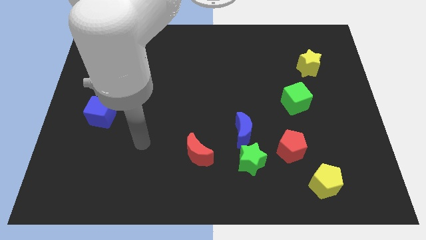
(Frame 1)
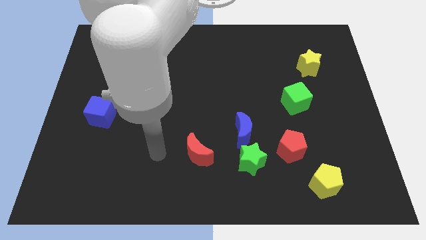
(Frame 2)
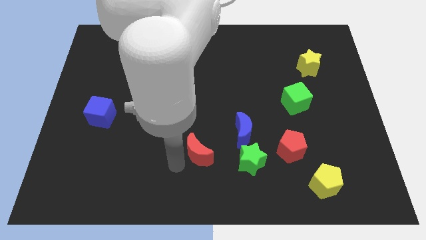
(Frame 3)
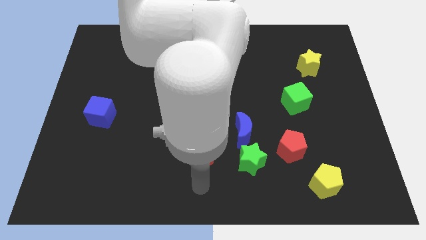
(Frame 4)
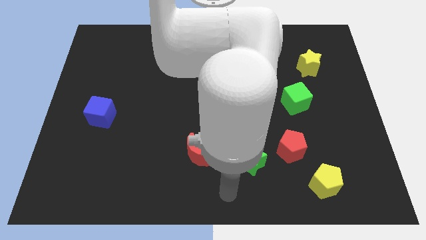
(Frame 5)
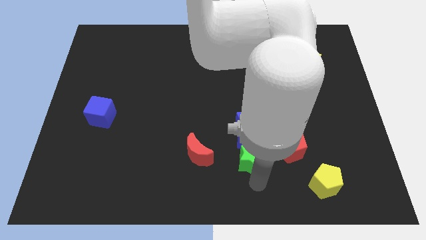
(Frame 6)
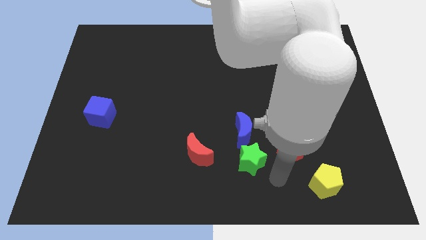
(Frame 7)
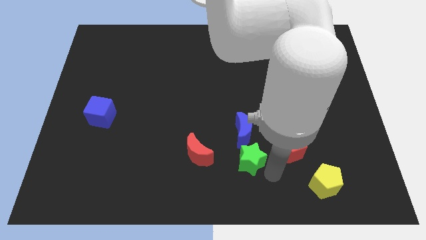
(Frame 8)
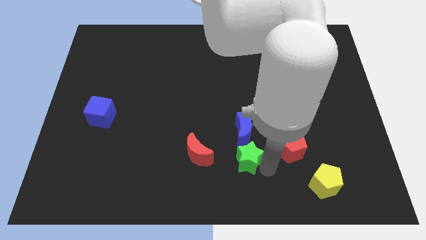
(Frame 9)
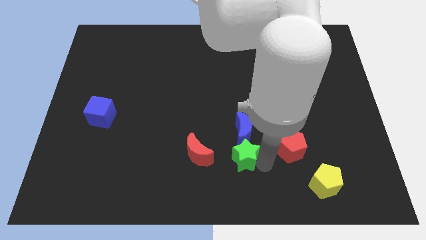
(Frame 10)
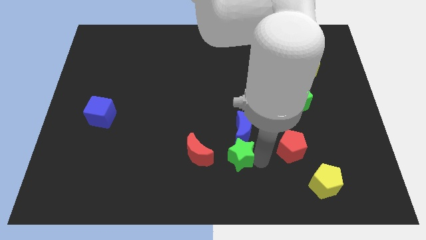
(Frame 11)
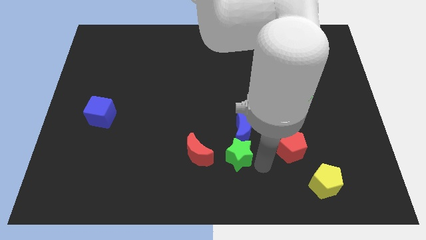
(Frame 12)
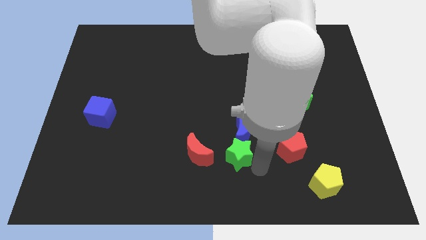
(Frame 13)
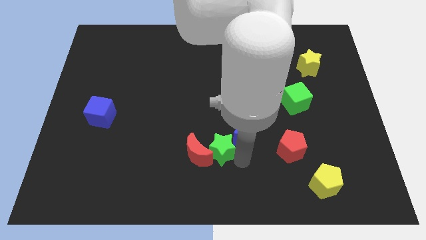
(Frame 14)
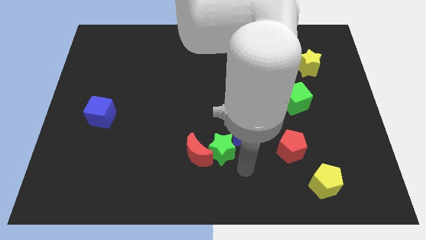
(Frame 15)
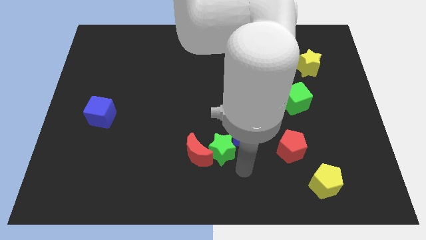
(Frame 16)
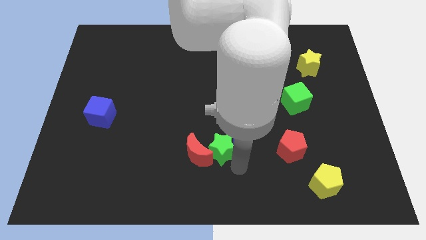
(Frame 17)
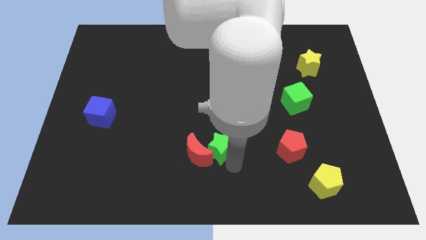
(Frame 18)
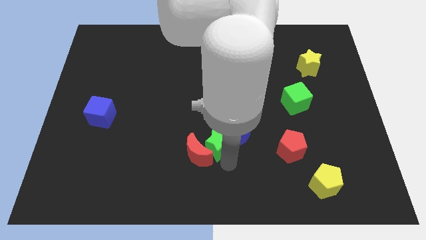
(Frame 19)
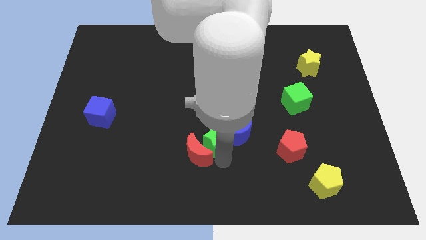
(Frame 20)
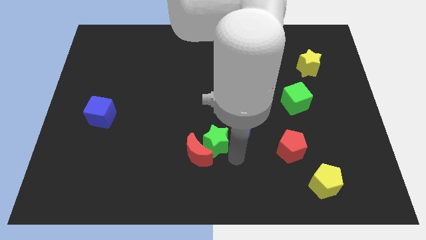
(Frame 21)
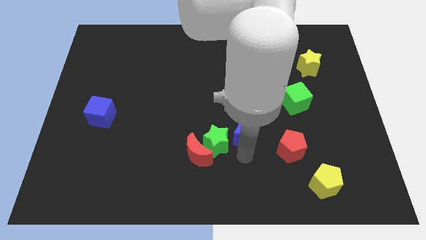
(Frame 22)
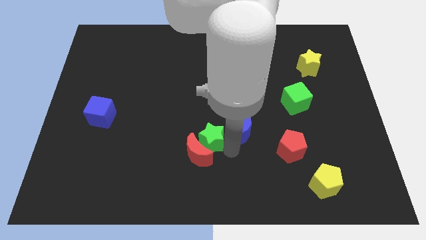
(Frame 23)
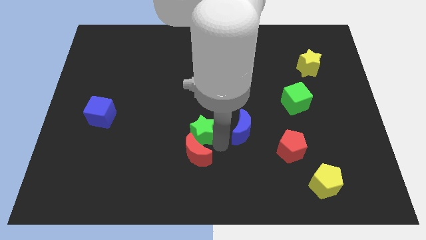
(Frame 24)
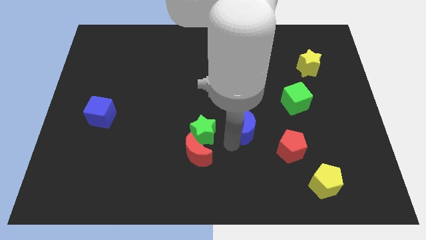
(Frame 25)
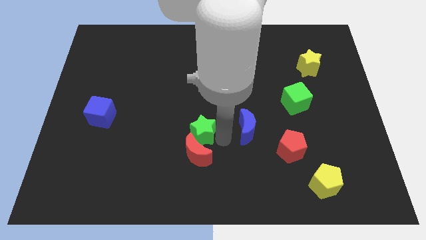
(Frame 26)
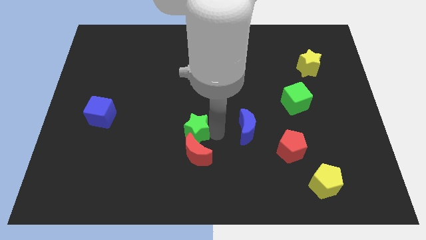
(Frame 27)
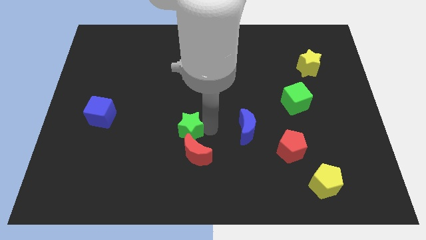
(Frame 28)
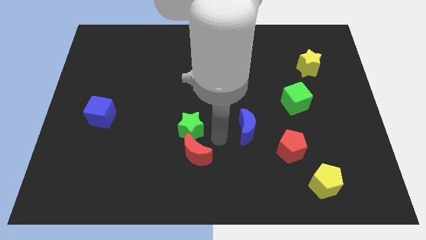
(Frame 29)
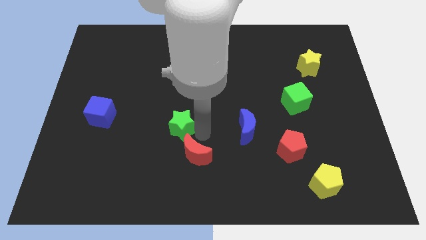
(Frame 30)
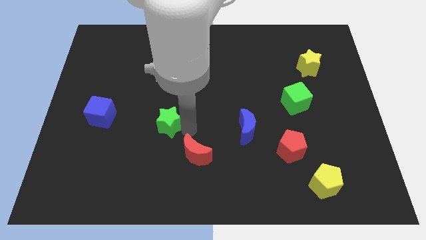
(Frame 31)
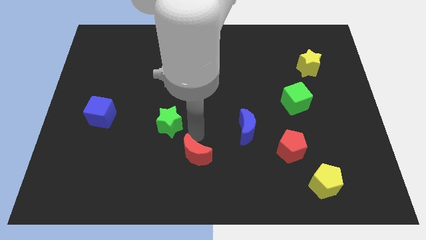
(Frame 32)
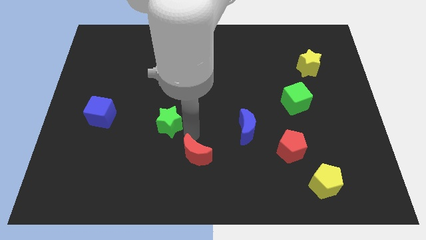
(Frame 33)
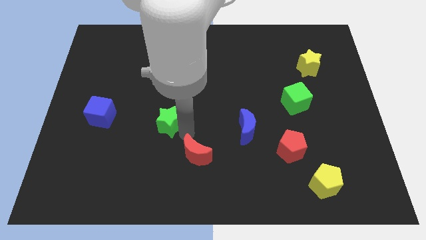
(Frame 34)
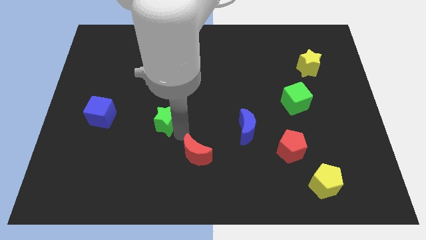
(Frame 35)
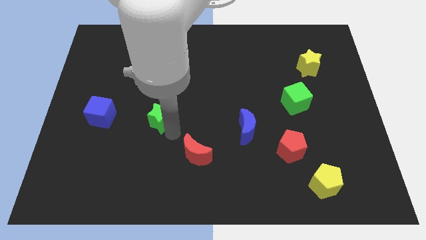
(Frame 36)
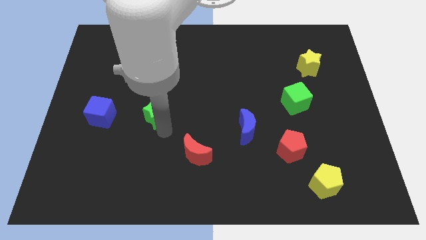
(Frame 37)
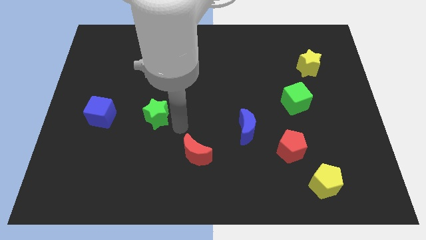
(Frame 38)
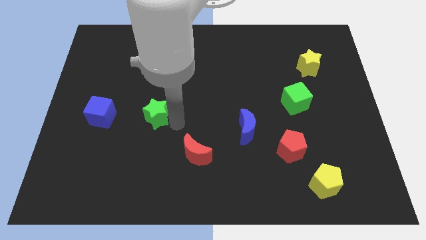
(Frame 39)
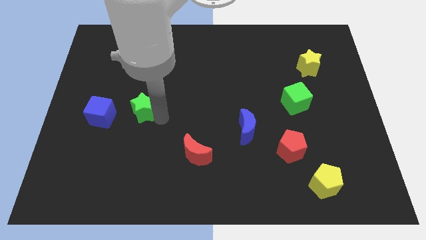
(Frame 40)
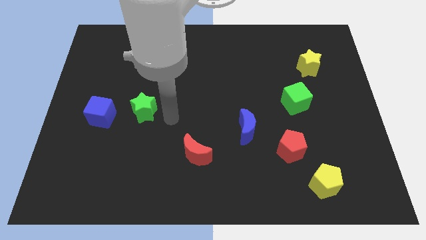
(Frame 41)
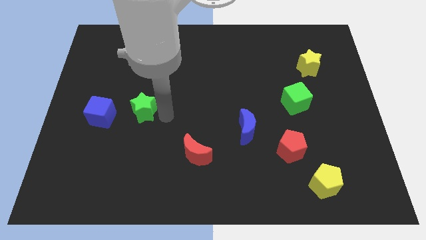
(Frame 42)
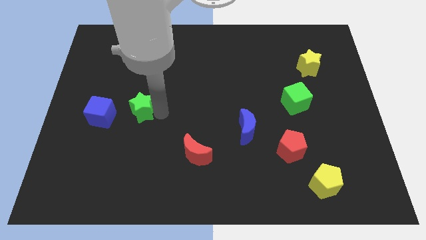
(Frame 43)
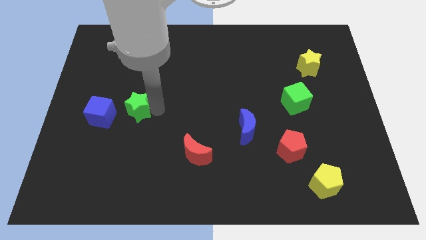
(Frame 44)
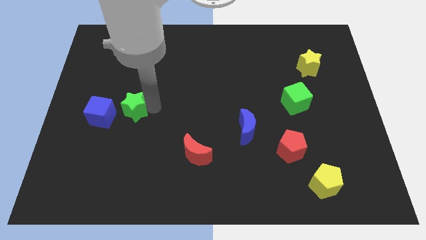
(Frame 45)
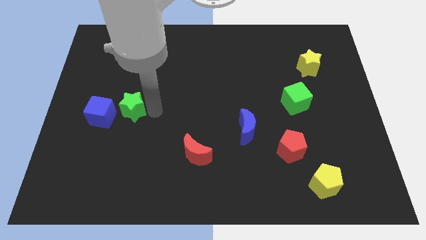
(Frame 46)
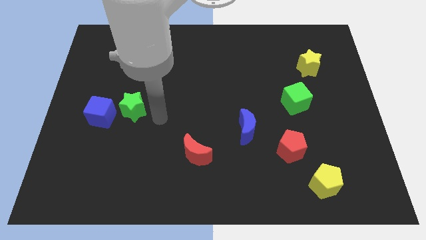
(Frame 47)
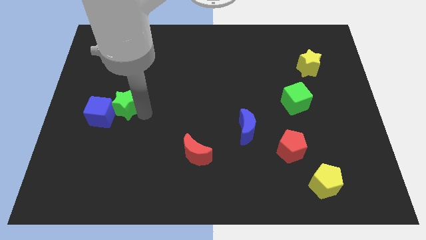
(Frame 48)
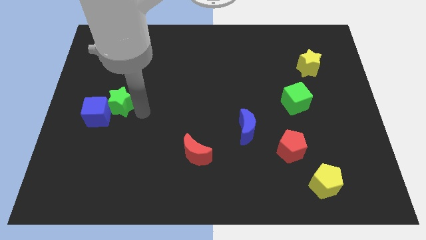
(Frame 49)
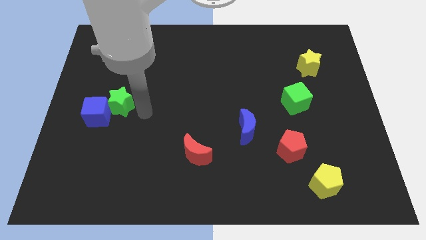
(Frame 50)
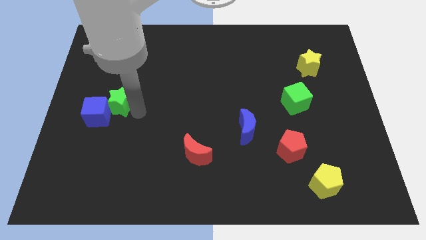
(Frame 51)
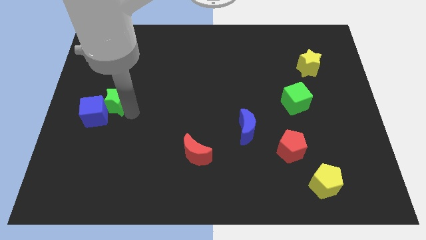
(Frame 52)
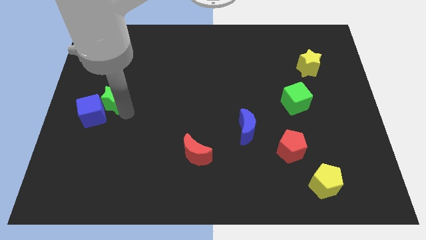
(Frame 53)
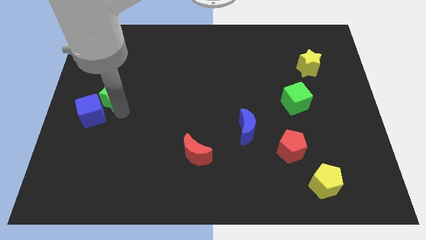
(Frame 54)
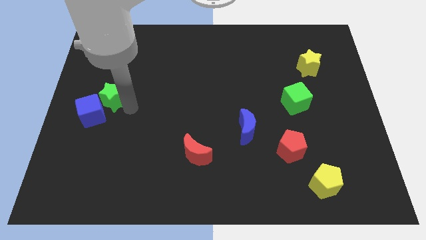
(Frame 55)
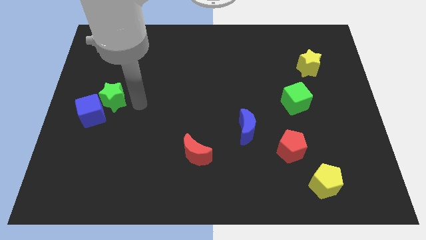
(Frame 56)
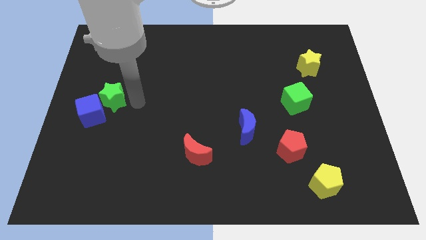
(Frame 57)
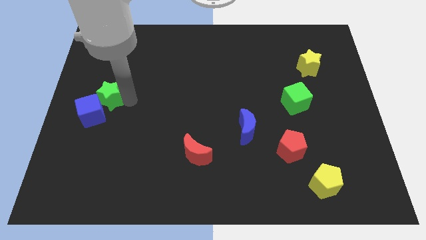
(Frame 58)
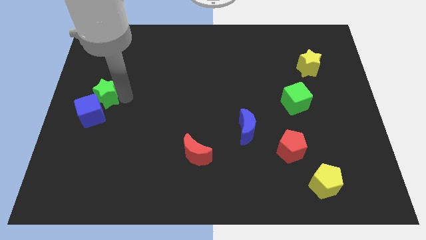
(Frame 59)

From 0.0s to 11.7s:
move the green star to the left side of the board

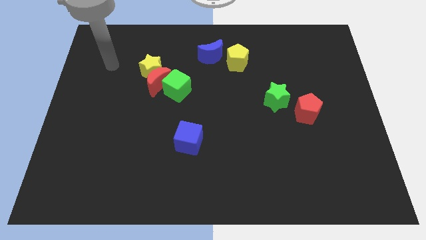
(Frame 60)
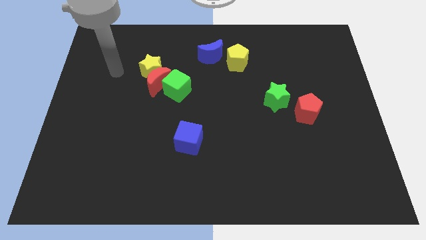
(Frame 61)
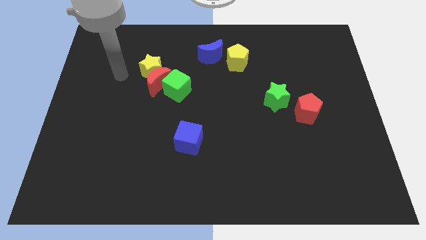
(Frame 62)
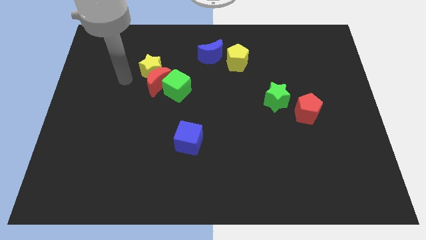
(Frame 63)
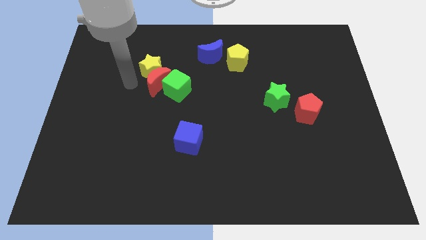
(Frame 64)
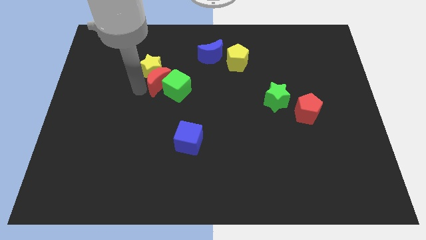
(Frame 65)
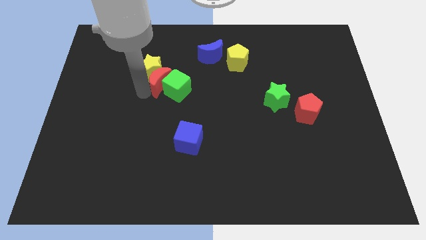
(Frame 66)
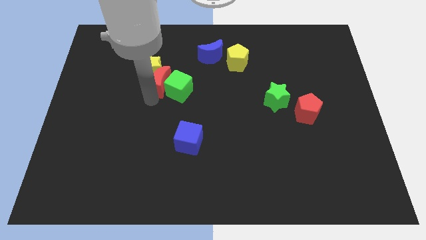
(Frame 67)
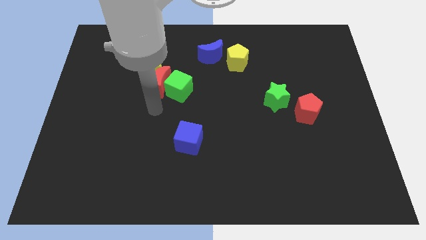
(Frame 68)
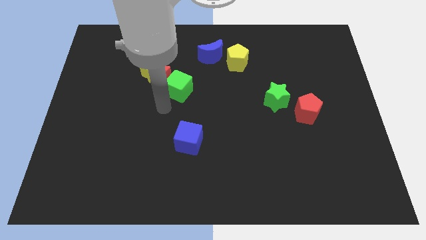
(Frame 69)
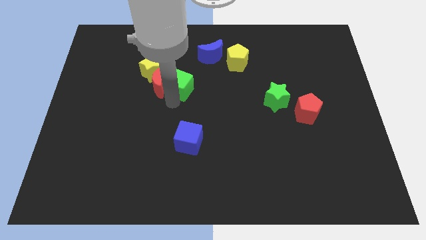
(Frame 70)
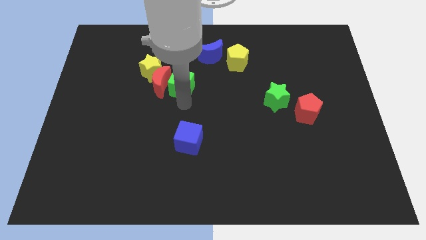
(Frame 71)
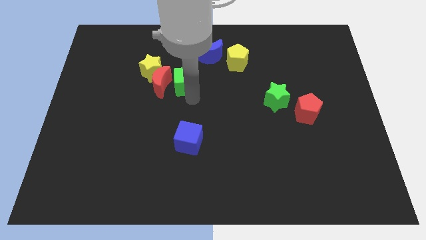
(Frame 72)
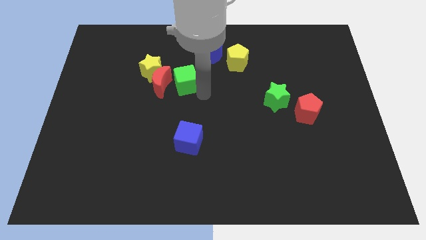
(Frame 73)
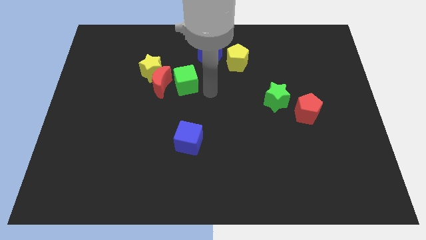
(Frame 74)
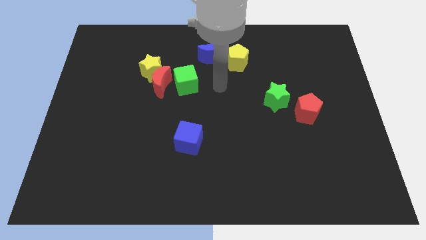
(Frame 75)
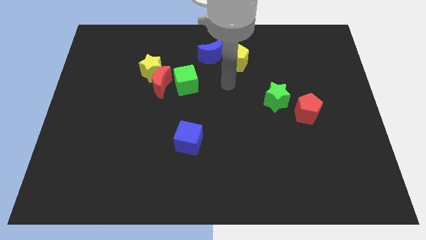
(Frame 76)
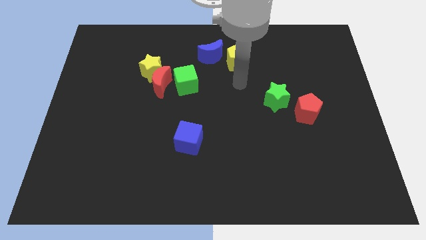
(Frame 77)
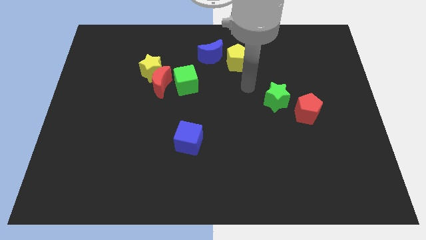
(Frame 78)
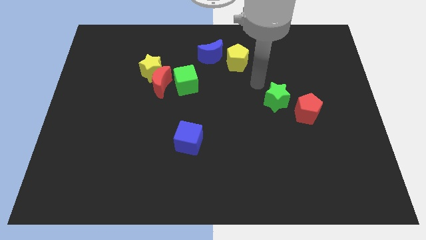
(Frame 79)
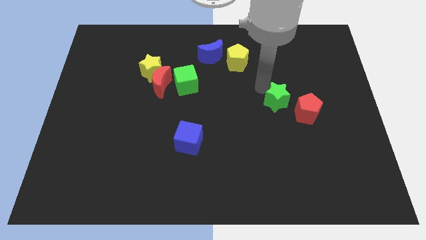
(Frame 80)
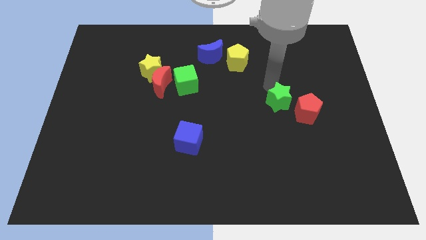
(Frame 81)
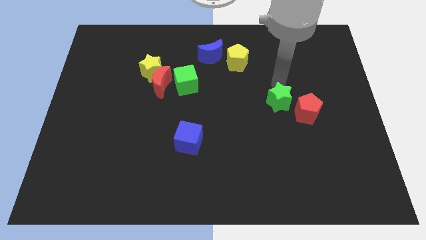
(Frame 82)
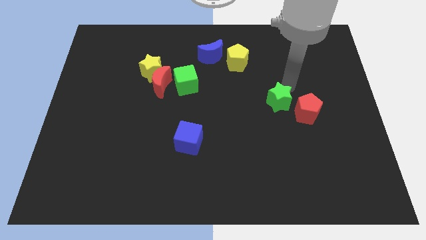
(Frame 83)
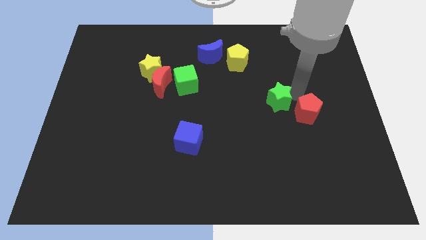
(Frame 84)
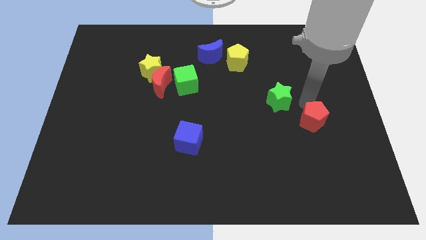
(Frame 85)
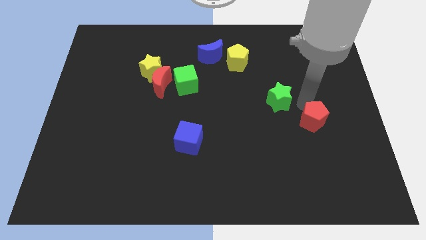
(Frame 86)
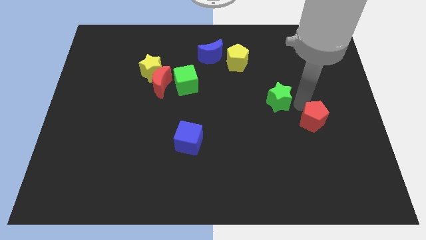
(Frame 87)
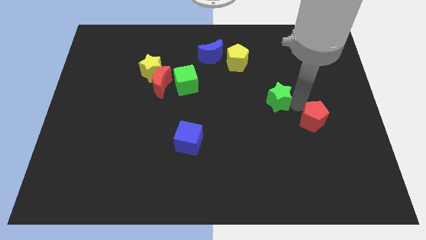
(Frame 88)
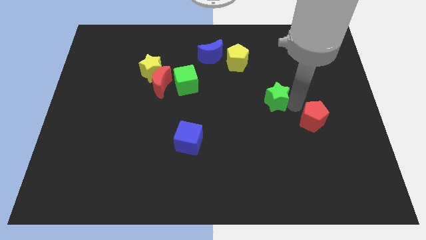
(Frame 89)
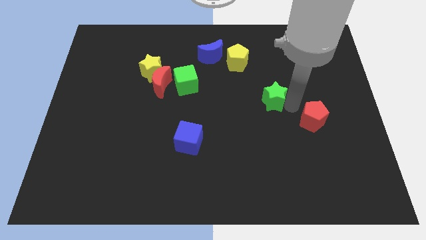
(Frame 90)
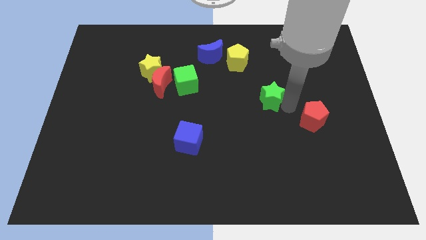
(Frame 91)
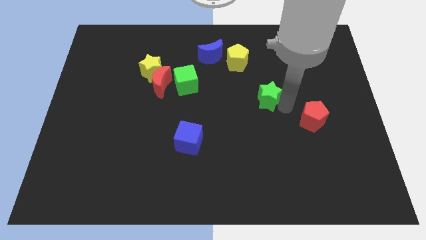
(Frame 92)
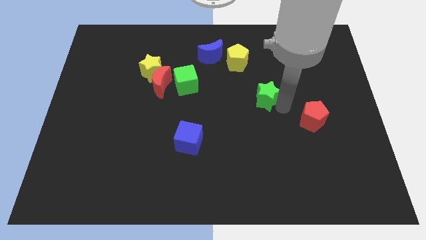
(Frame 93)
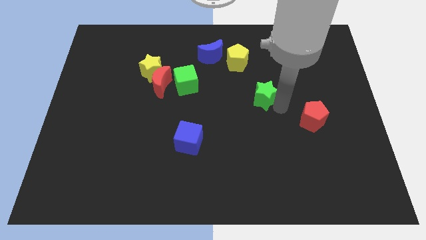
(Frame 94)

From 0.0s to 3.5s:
put the green star to the center
